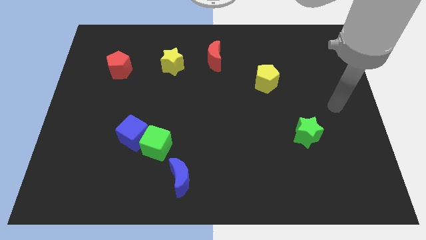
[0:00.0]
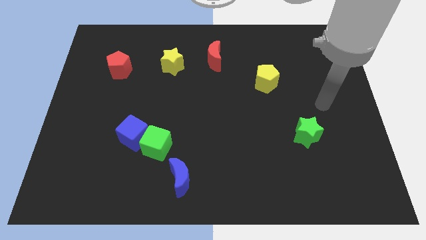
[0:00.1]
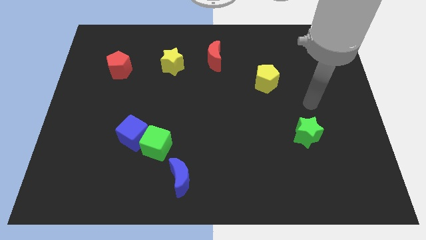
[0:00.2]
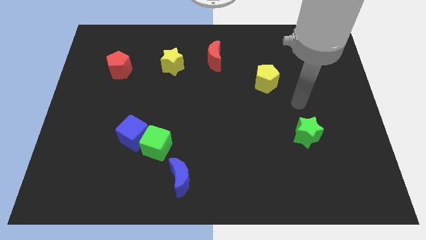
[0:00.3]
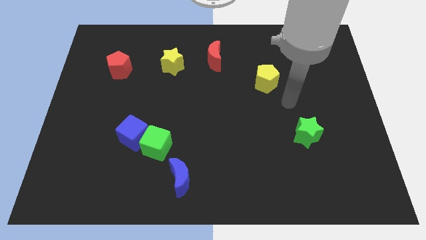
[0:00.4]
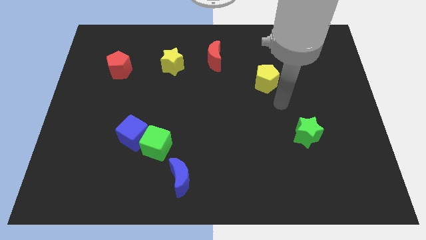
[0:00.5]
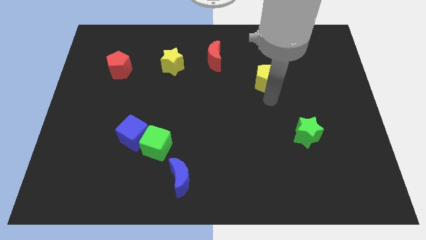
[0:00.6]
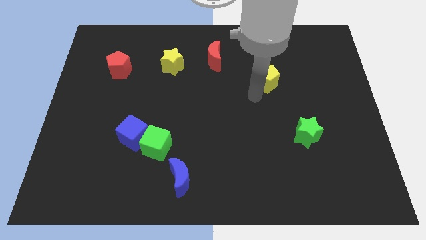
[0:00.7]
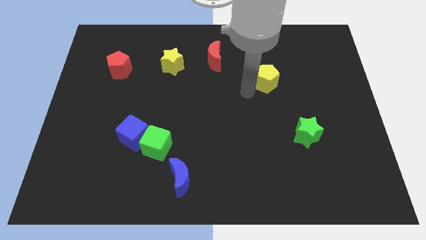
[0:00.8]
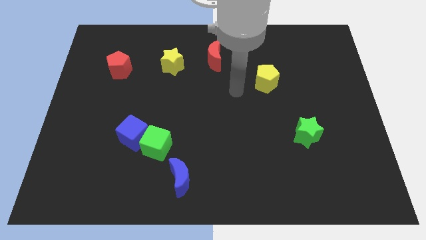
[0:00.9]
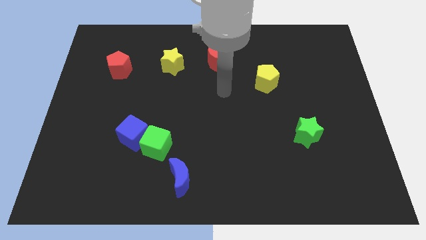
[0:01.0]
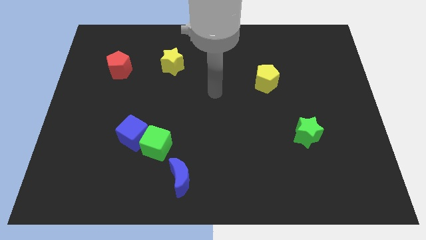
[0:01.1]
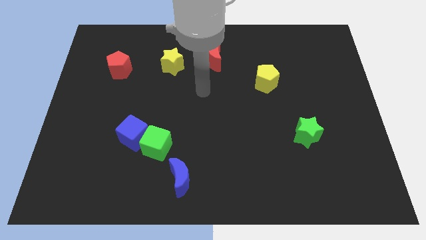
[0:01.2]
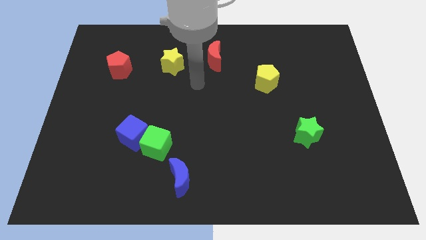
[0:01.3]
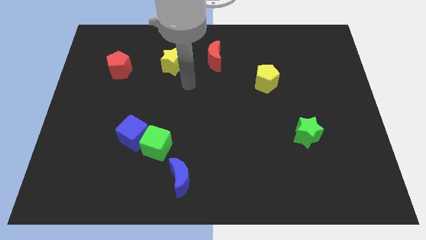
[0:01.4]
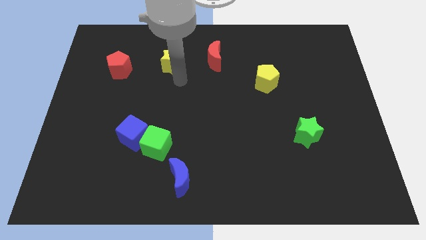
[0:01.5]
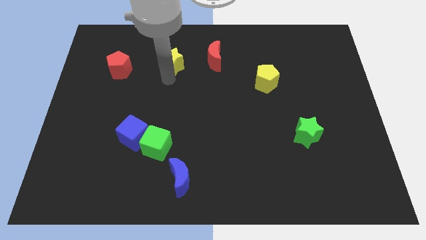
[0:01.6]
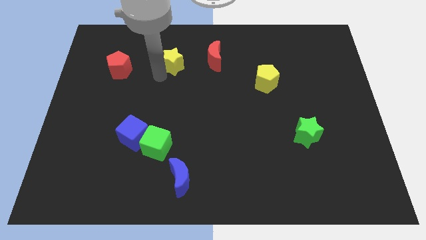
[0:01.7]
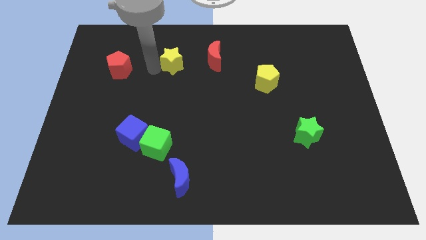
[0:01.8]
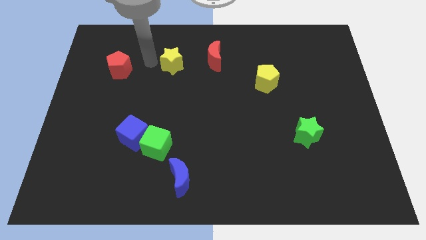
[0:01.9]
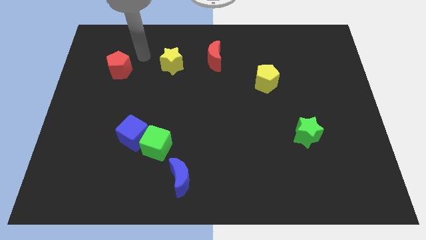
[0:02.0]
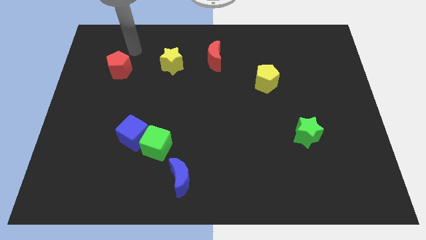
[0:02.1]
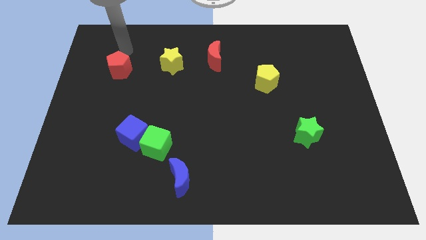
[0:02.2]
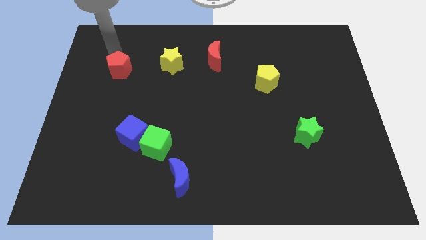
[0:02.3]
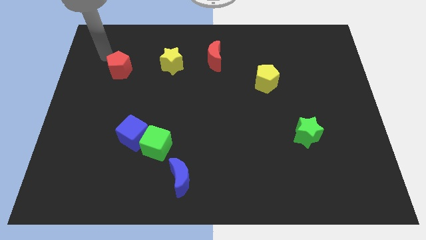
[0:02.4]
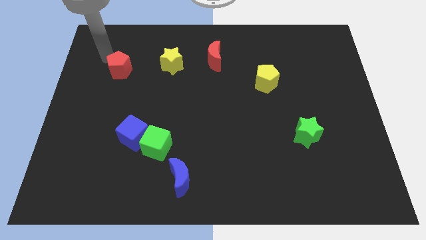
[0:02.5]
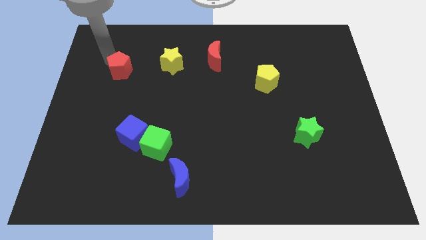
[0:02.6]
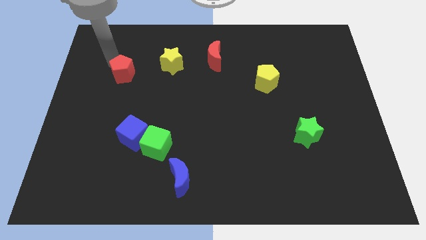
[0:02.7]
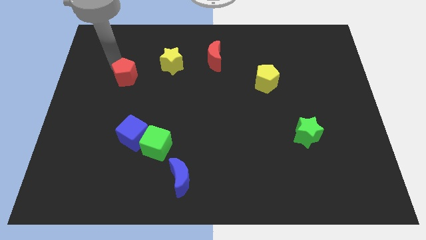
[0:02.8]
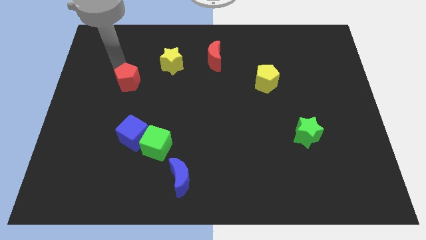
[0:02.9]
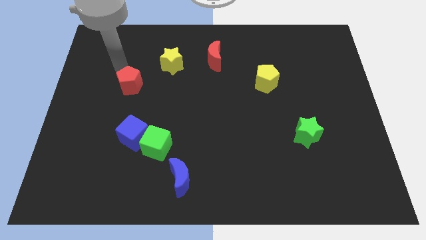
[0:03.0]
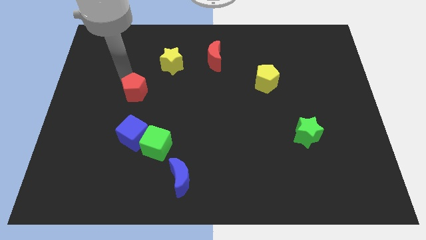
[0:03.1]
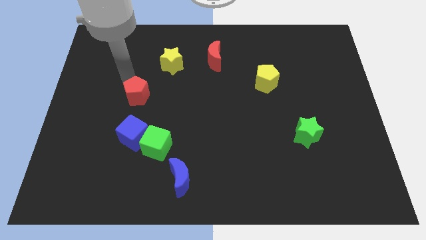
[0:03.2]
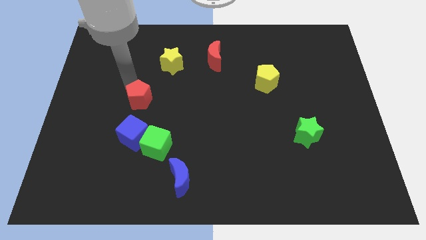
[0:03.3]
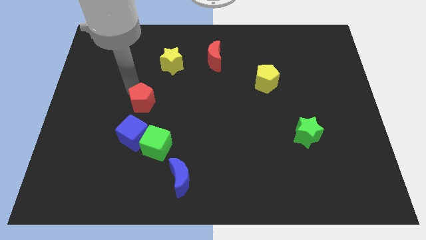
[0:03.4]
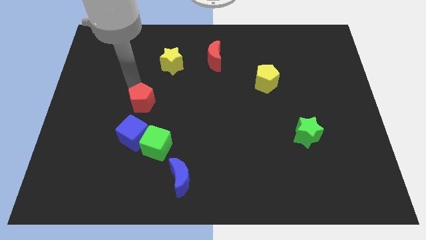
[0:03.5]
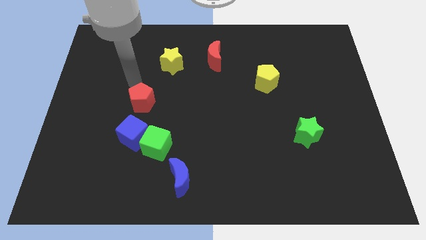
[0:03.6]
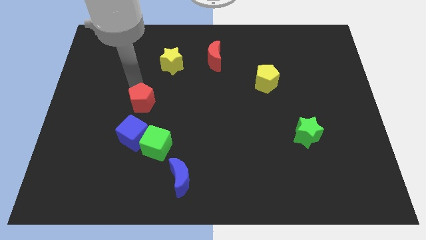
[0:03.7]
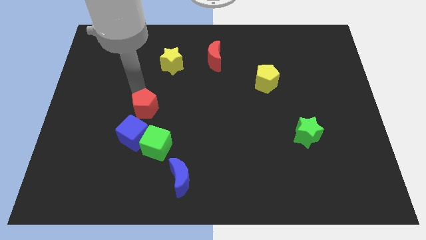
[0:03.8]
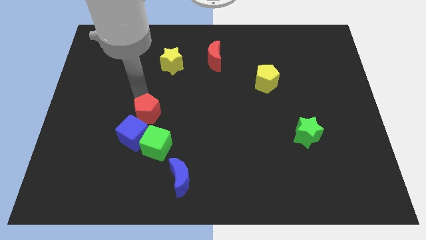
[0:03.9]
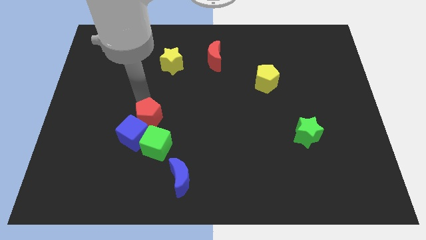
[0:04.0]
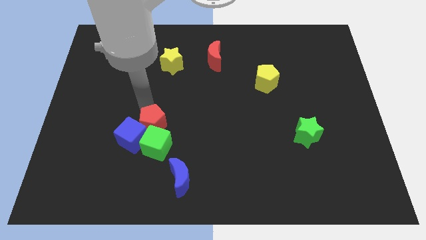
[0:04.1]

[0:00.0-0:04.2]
slide the red pentagon next to the green cube

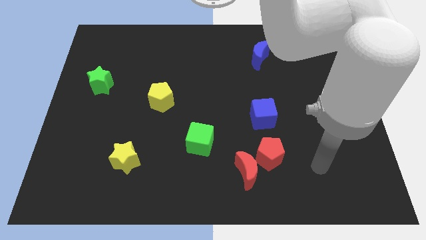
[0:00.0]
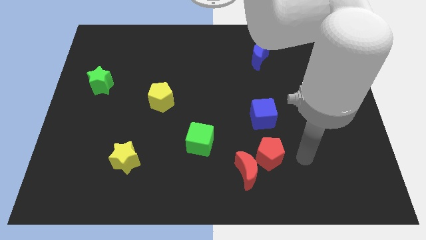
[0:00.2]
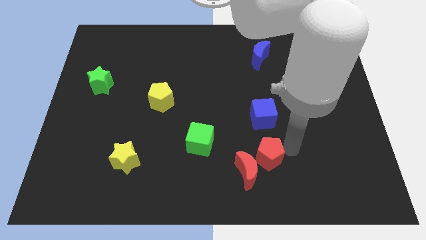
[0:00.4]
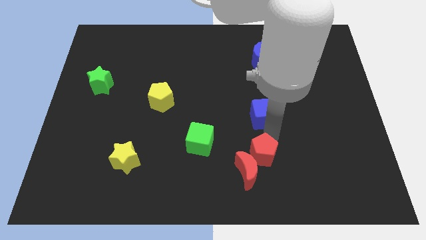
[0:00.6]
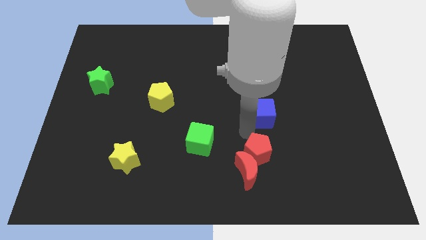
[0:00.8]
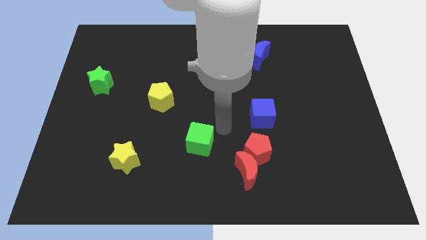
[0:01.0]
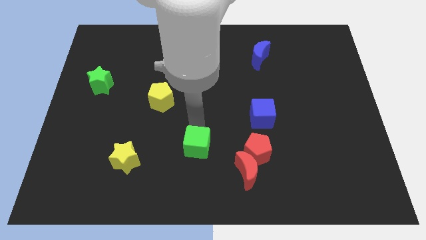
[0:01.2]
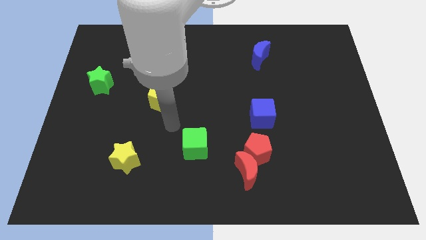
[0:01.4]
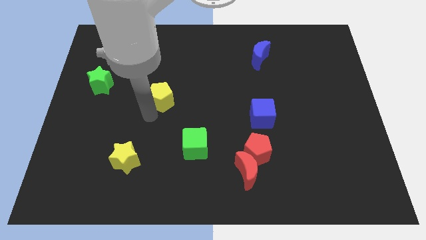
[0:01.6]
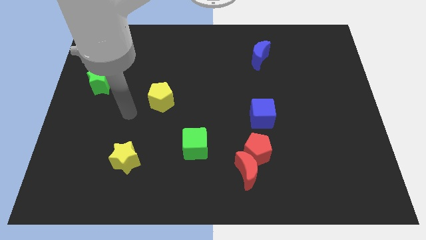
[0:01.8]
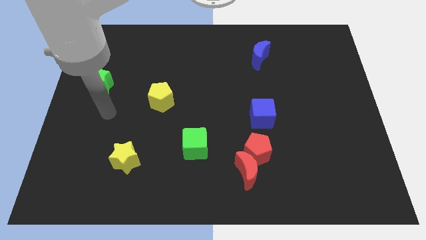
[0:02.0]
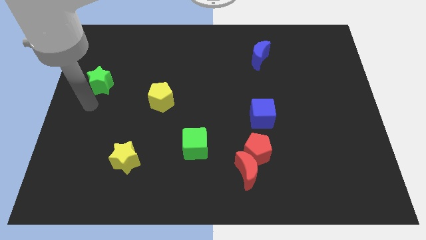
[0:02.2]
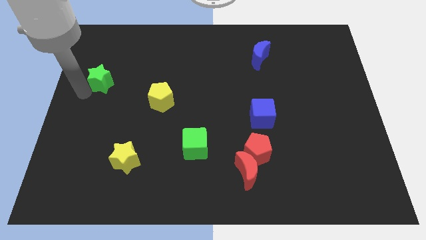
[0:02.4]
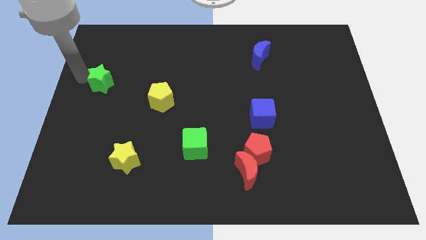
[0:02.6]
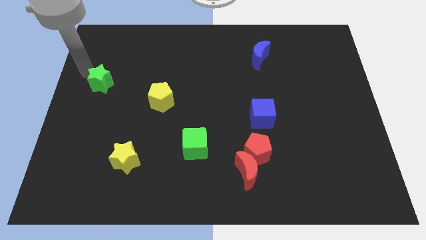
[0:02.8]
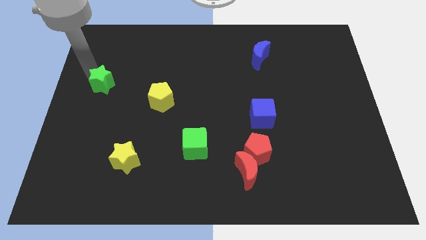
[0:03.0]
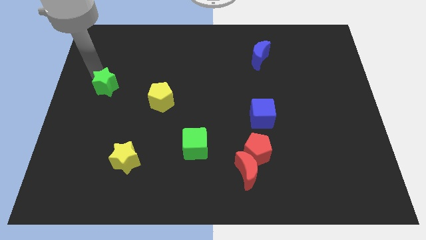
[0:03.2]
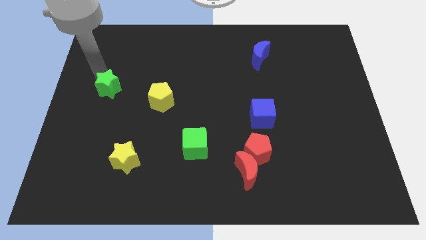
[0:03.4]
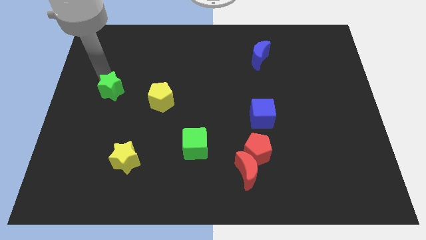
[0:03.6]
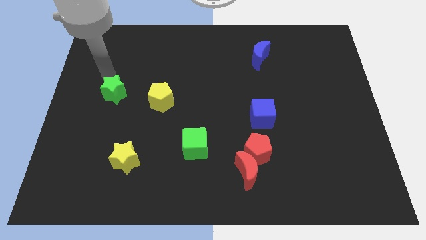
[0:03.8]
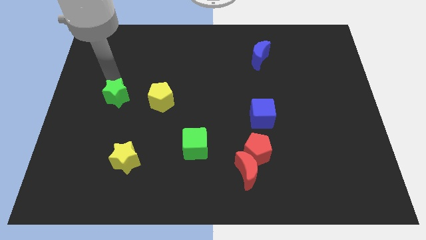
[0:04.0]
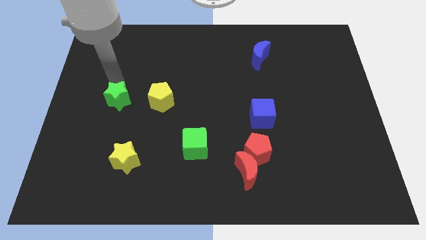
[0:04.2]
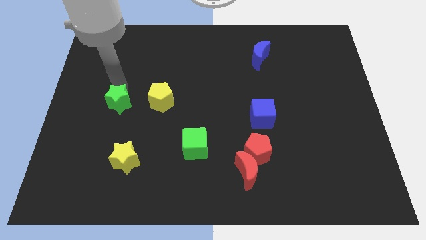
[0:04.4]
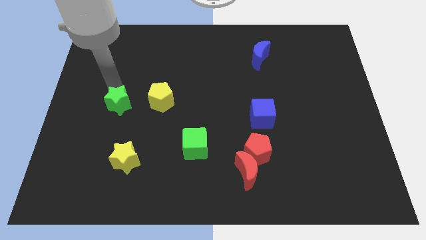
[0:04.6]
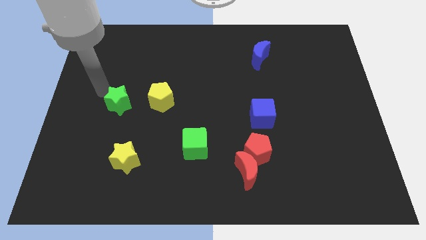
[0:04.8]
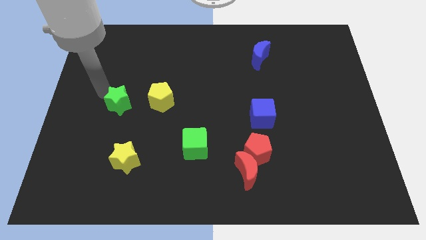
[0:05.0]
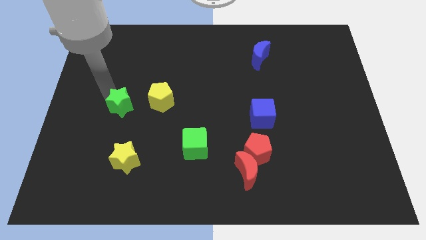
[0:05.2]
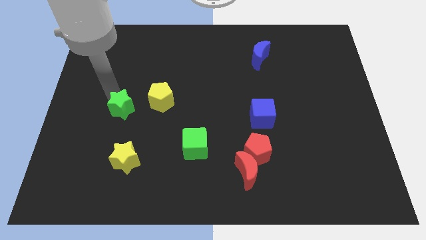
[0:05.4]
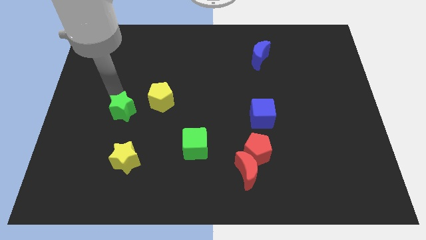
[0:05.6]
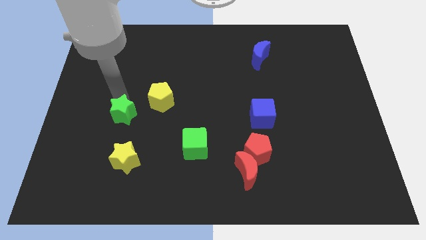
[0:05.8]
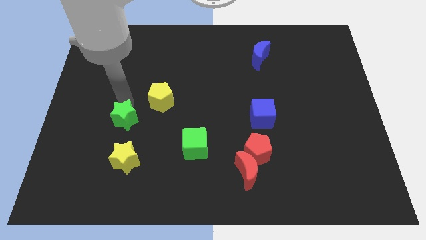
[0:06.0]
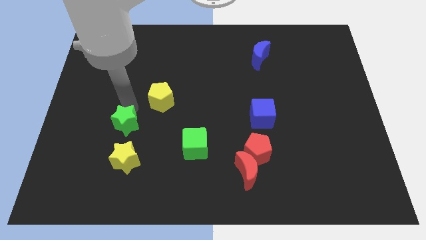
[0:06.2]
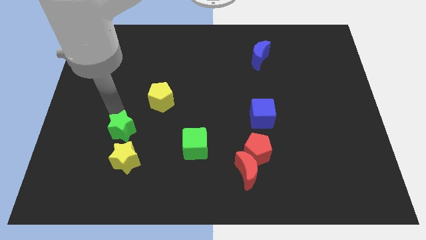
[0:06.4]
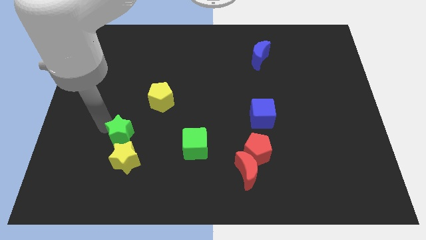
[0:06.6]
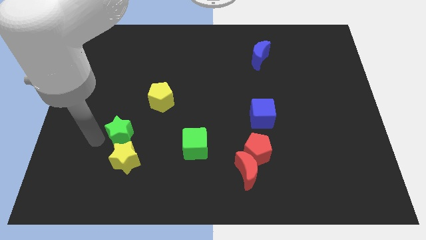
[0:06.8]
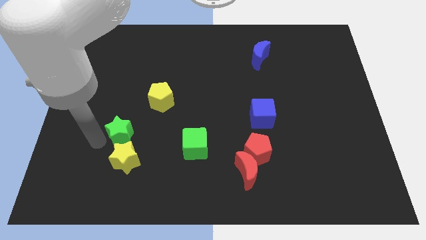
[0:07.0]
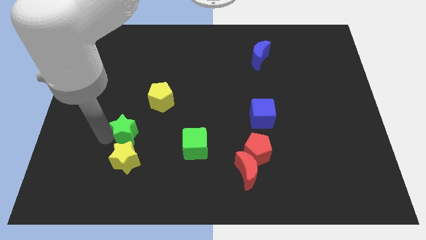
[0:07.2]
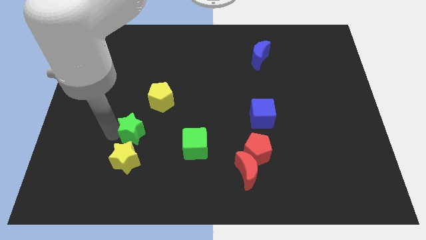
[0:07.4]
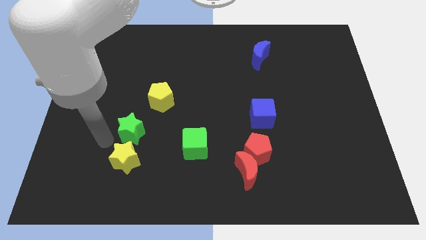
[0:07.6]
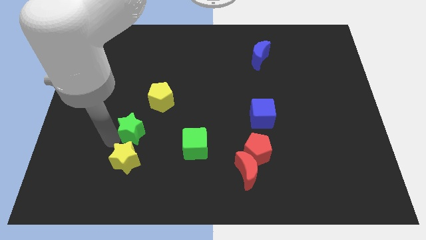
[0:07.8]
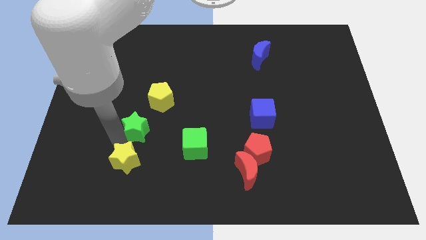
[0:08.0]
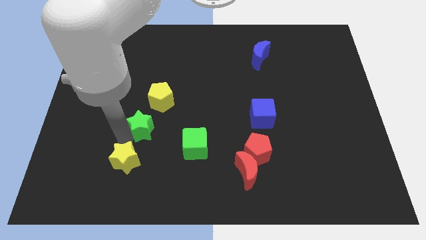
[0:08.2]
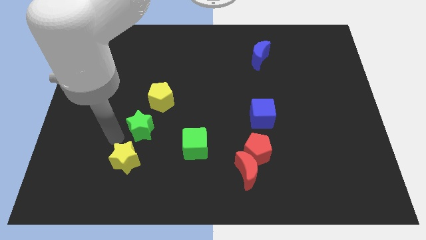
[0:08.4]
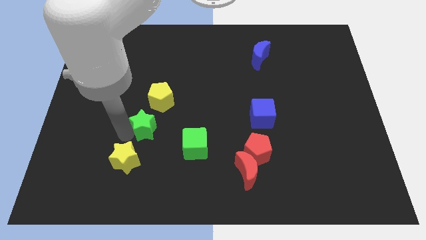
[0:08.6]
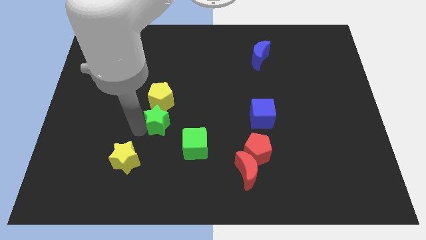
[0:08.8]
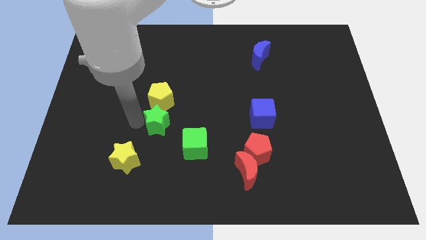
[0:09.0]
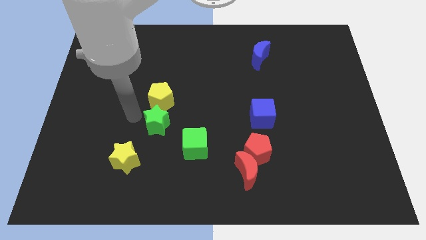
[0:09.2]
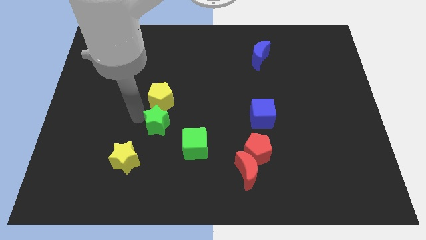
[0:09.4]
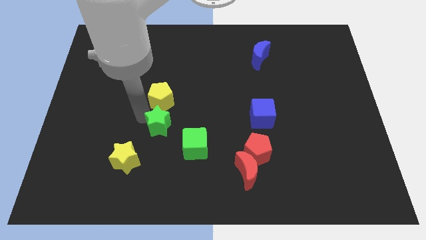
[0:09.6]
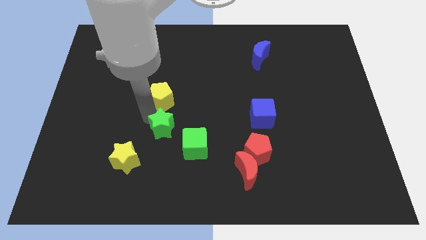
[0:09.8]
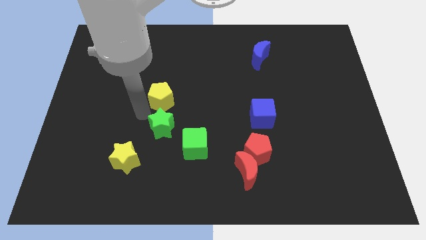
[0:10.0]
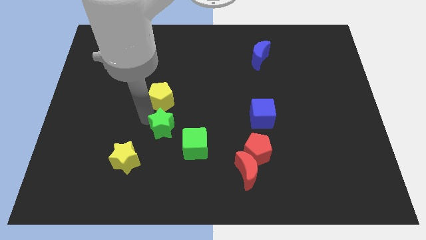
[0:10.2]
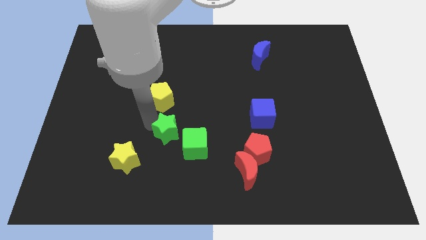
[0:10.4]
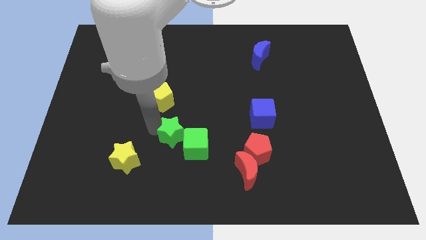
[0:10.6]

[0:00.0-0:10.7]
push the green star next to the green cube
